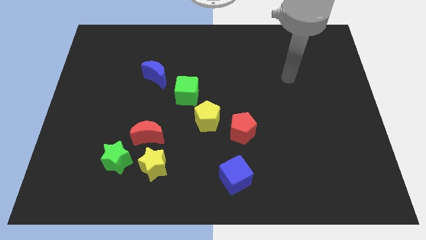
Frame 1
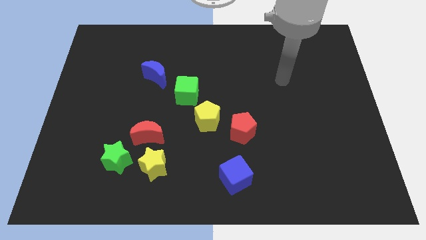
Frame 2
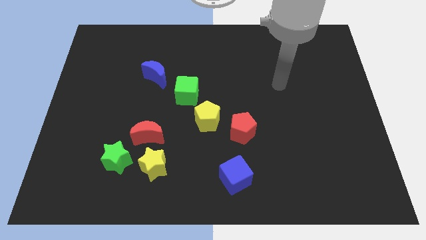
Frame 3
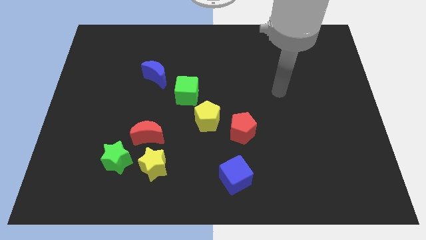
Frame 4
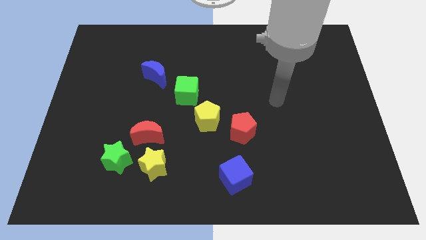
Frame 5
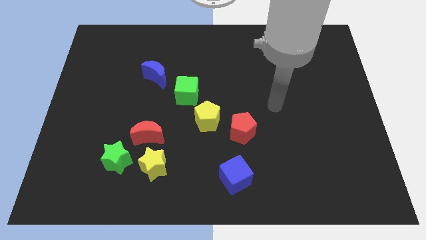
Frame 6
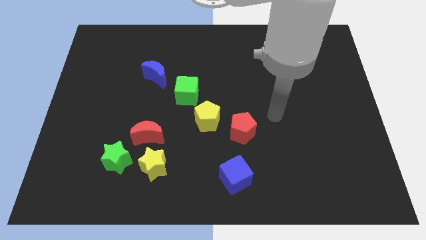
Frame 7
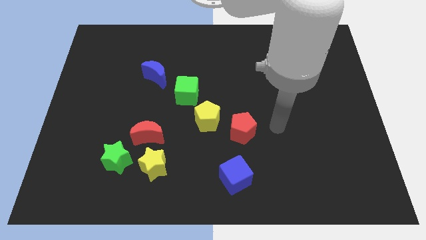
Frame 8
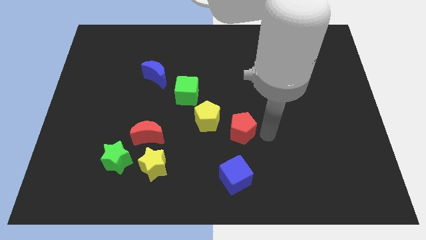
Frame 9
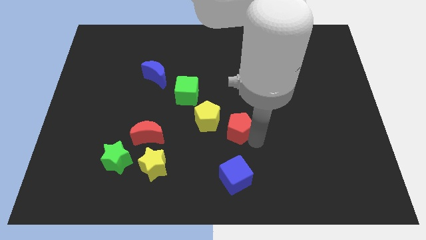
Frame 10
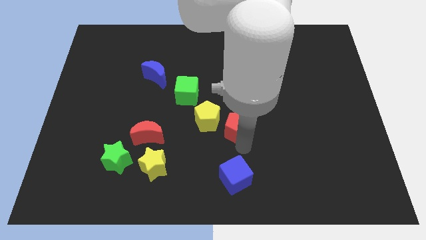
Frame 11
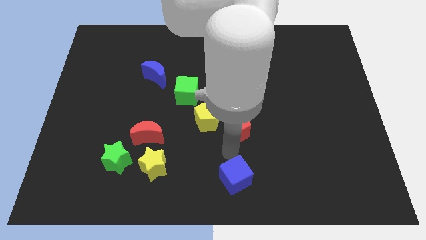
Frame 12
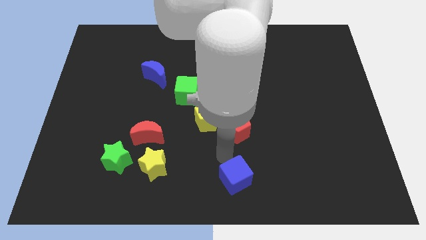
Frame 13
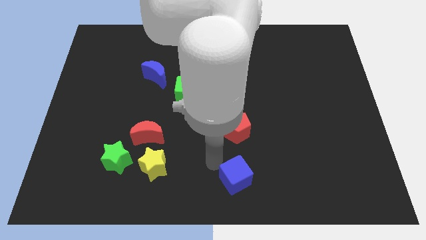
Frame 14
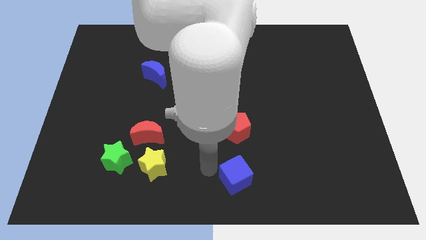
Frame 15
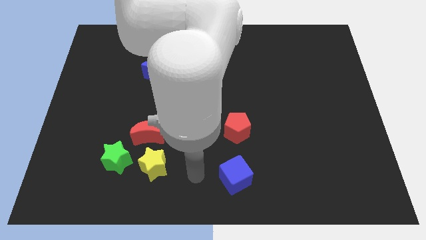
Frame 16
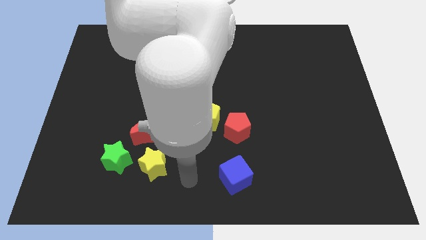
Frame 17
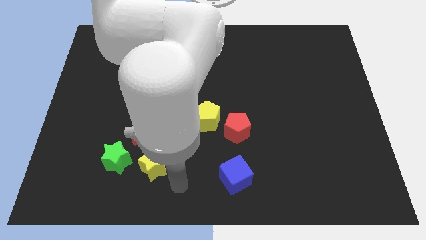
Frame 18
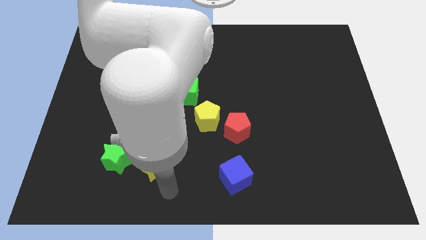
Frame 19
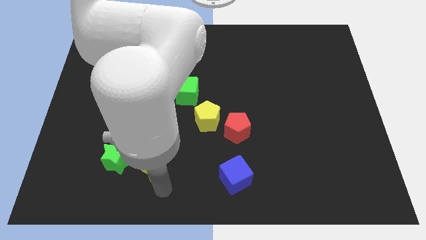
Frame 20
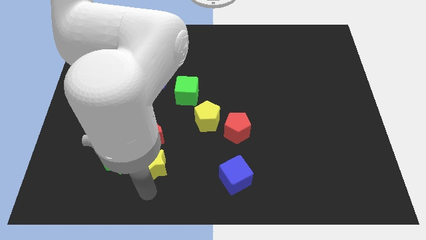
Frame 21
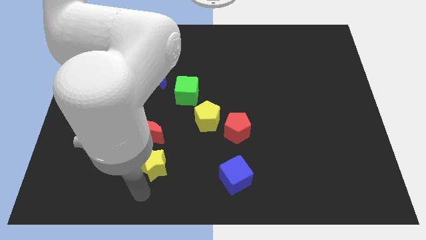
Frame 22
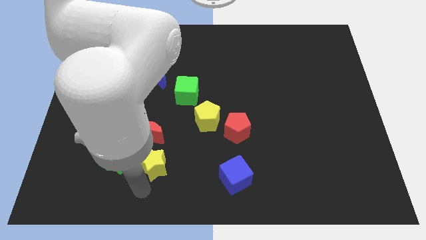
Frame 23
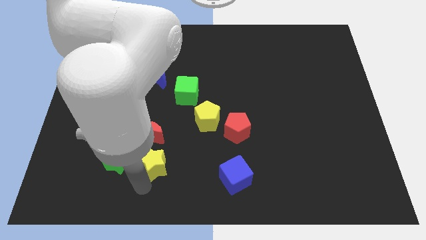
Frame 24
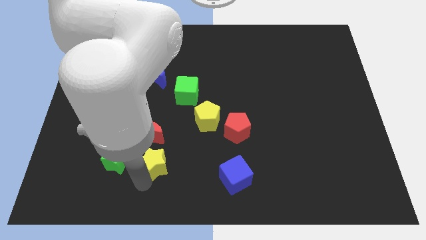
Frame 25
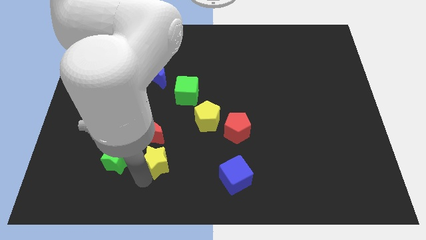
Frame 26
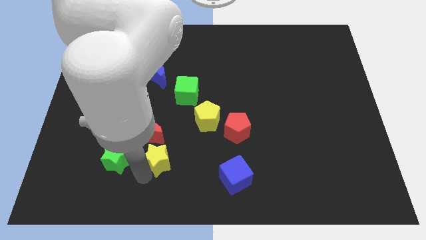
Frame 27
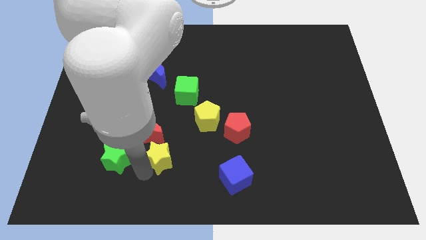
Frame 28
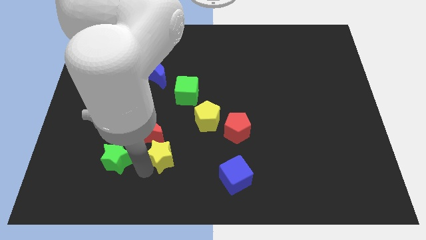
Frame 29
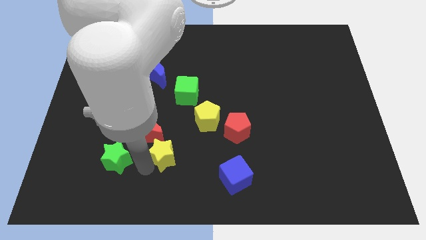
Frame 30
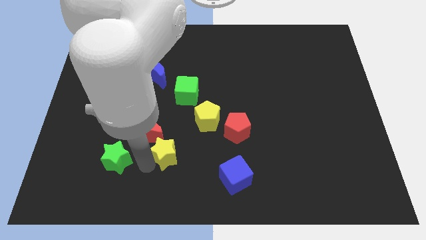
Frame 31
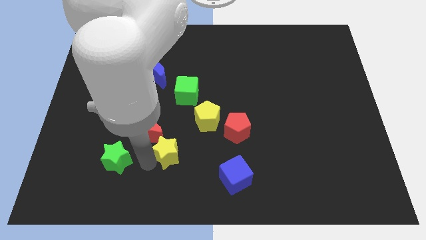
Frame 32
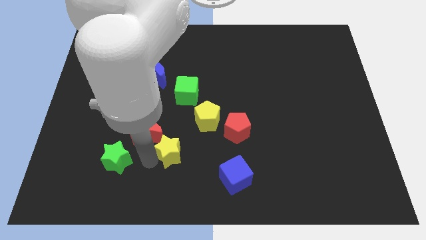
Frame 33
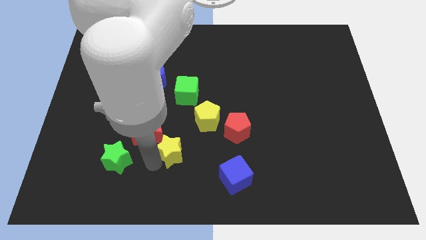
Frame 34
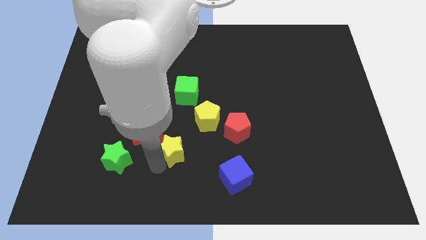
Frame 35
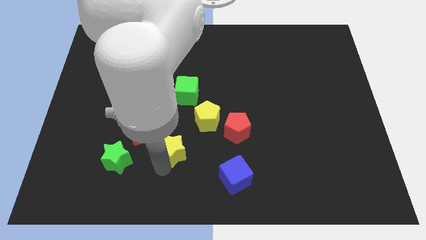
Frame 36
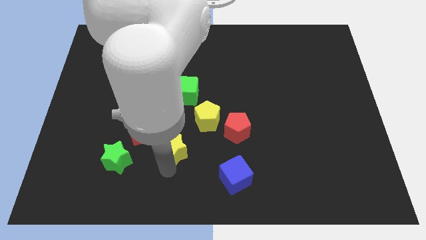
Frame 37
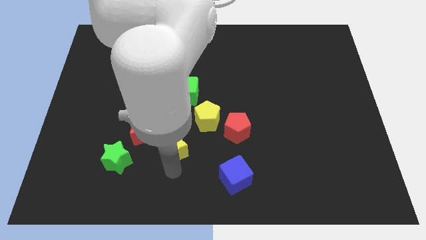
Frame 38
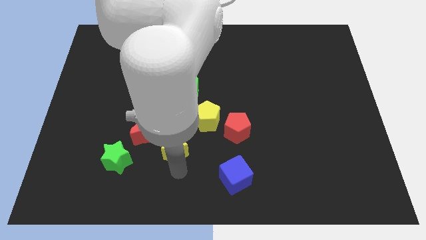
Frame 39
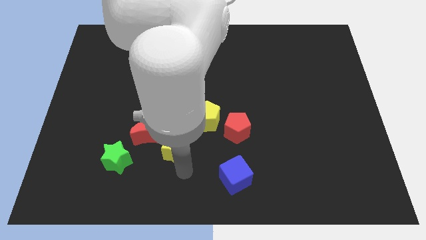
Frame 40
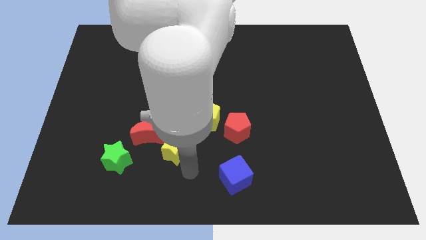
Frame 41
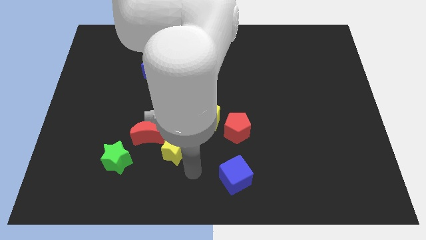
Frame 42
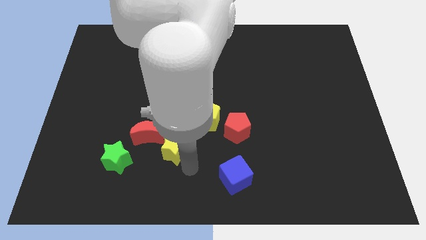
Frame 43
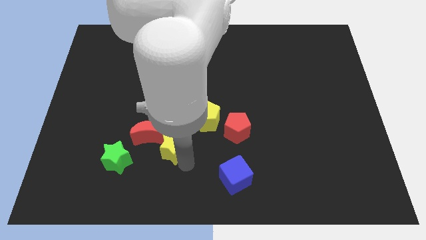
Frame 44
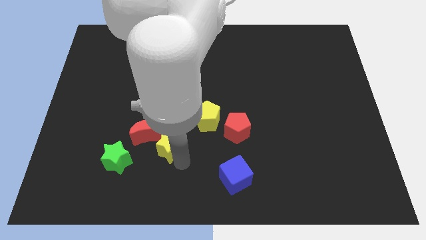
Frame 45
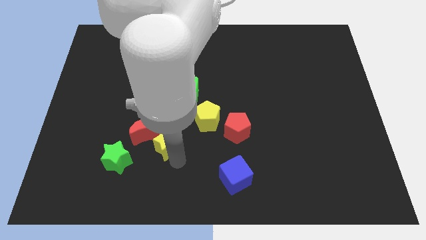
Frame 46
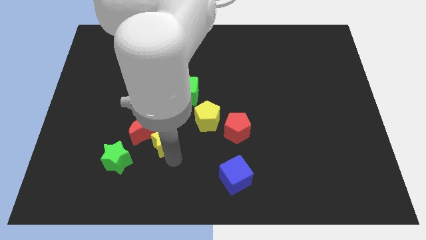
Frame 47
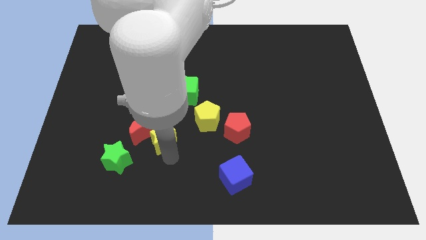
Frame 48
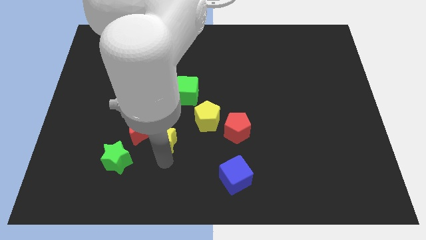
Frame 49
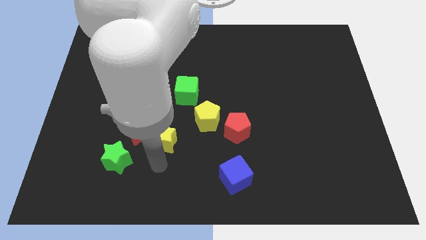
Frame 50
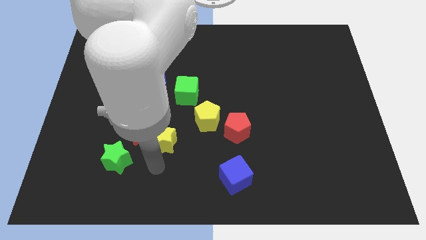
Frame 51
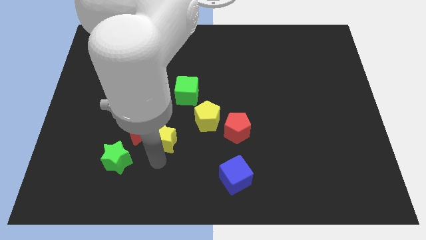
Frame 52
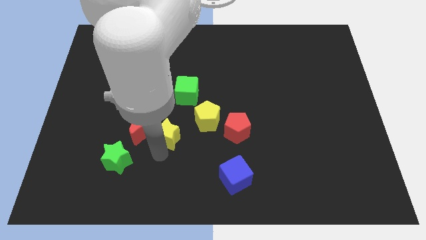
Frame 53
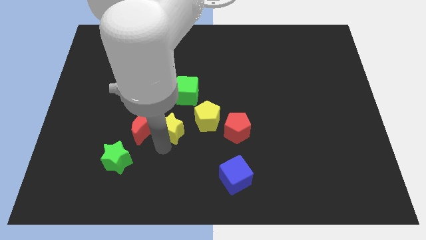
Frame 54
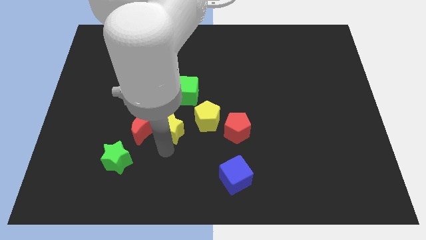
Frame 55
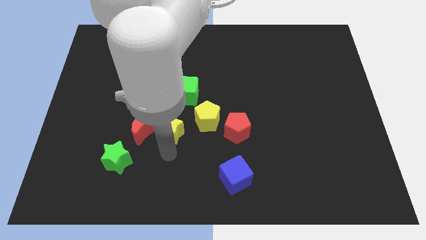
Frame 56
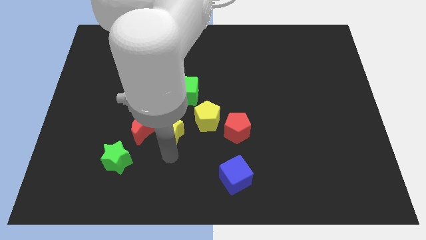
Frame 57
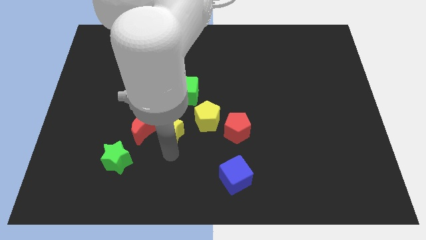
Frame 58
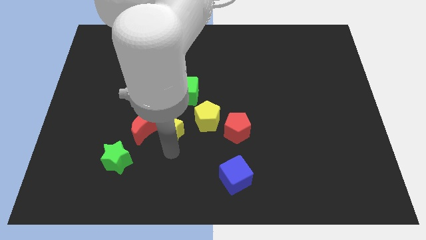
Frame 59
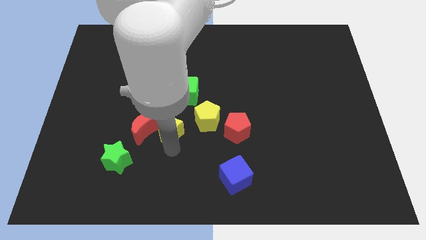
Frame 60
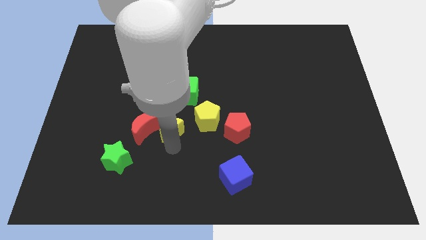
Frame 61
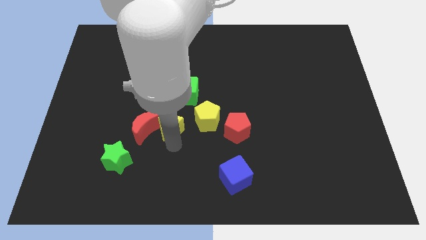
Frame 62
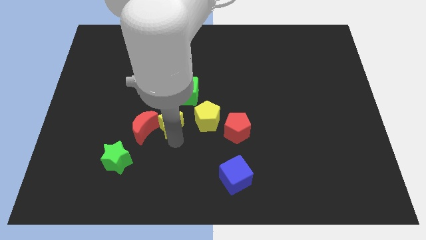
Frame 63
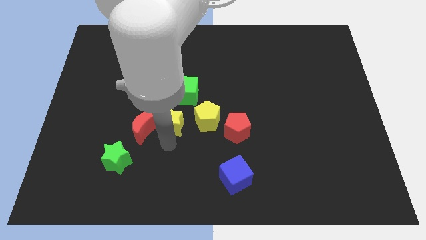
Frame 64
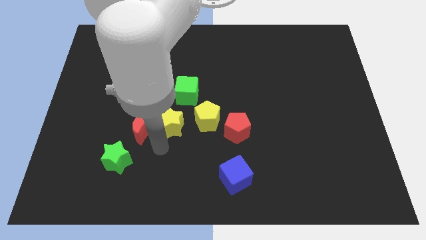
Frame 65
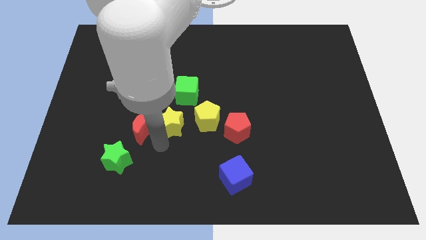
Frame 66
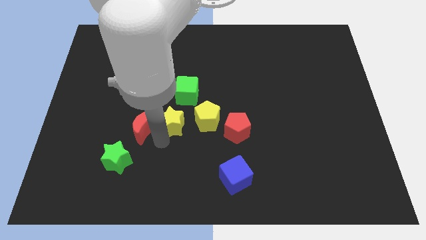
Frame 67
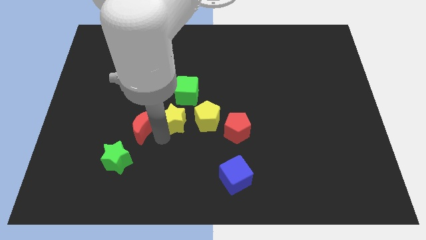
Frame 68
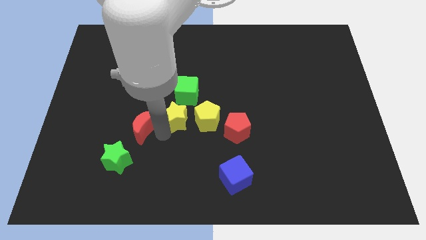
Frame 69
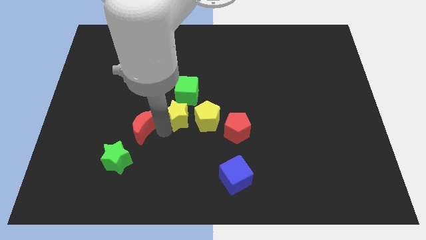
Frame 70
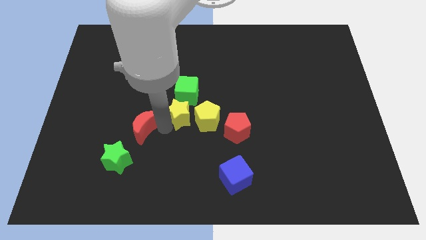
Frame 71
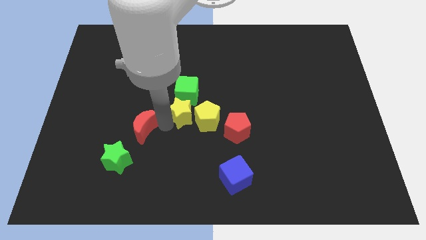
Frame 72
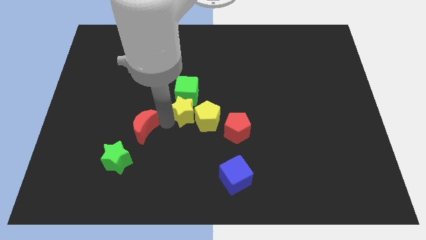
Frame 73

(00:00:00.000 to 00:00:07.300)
put the yellow star to the green cube
